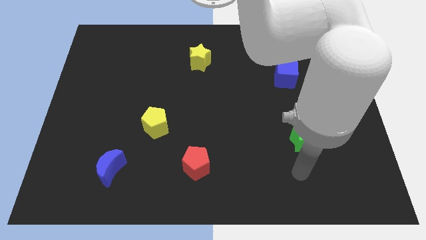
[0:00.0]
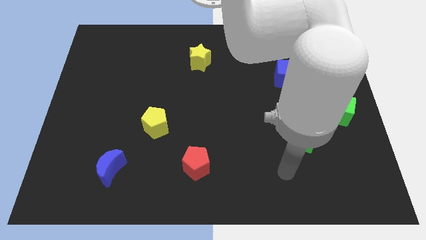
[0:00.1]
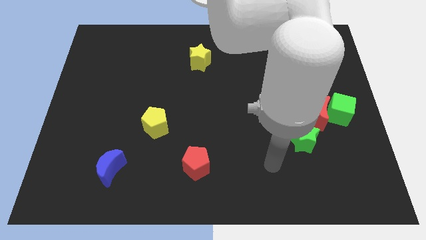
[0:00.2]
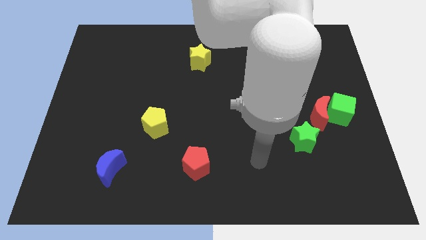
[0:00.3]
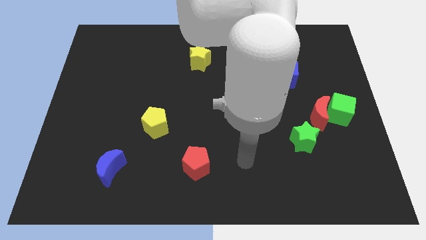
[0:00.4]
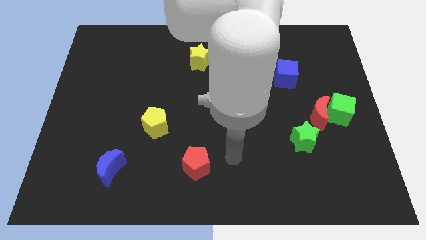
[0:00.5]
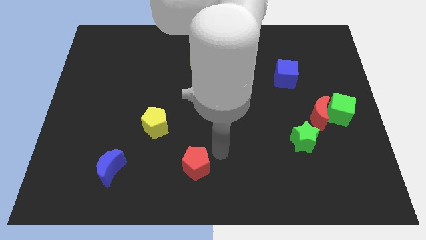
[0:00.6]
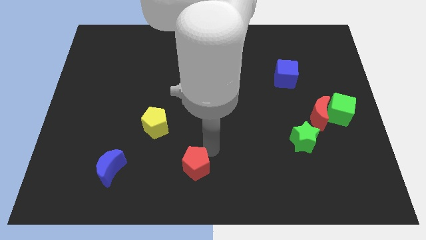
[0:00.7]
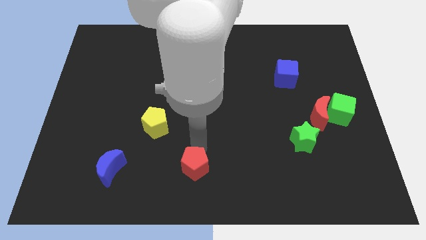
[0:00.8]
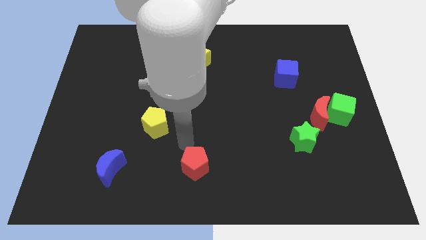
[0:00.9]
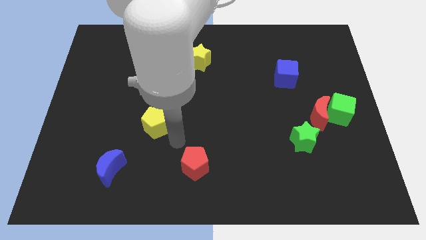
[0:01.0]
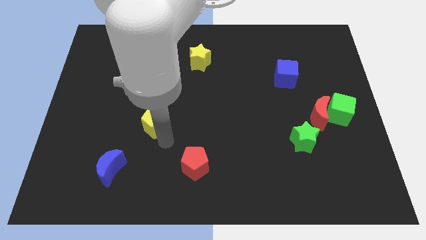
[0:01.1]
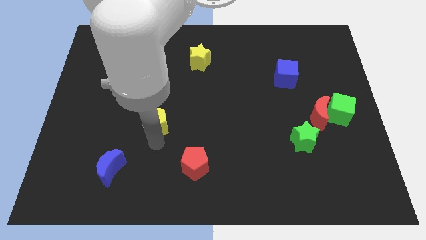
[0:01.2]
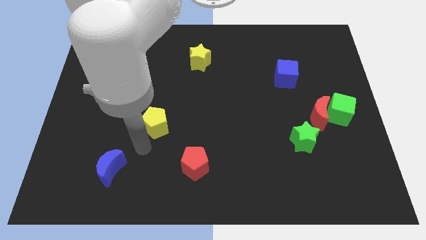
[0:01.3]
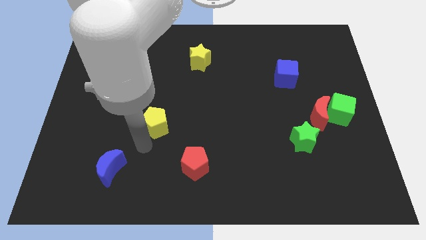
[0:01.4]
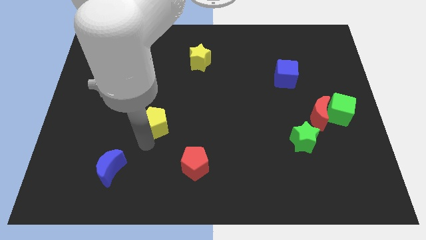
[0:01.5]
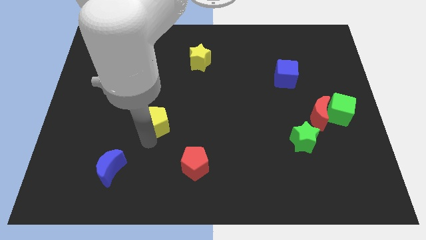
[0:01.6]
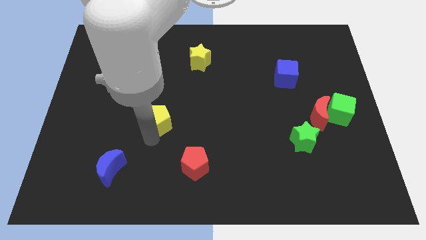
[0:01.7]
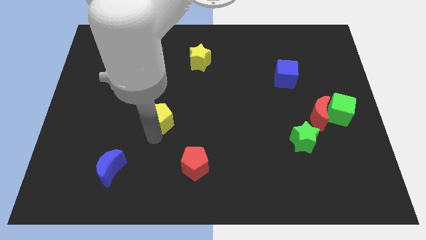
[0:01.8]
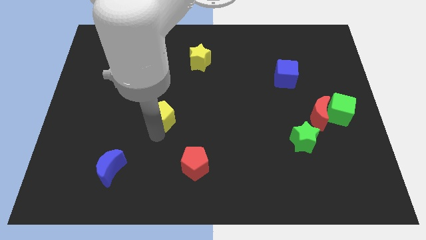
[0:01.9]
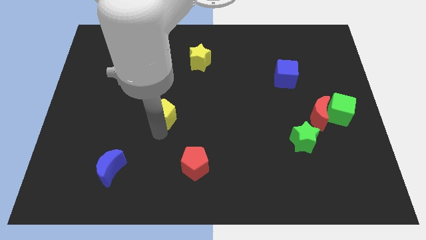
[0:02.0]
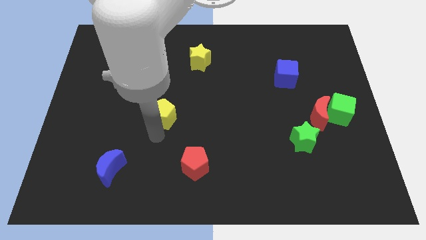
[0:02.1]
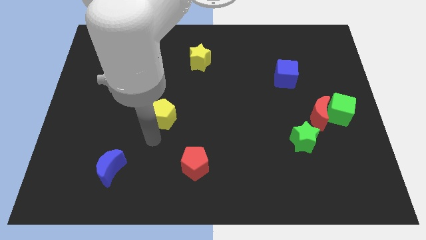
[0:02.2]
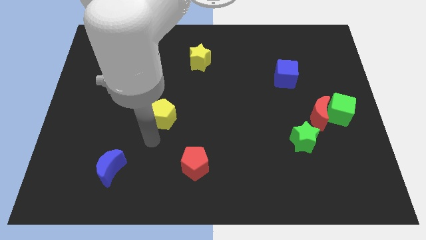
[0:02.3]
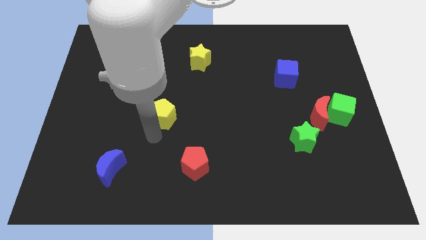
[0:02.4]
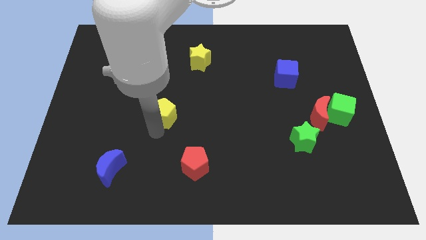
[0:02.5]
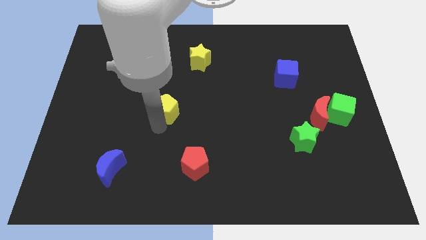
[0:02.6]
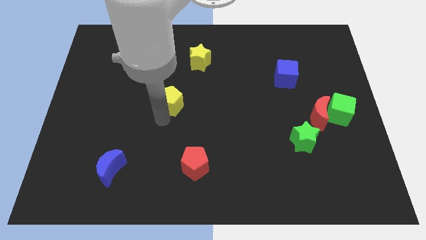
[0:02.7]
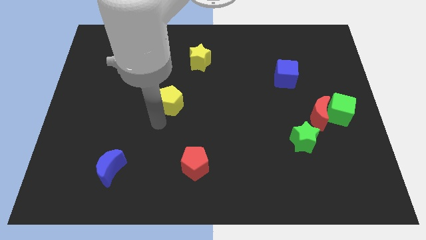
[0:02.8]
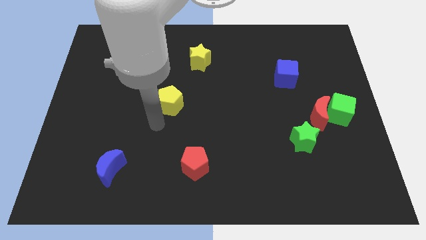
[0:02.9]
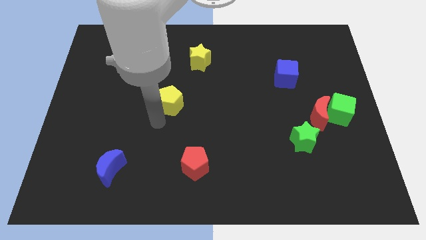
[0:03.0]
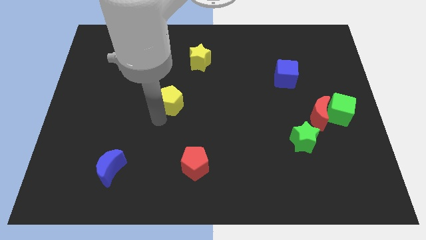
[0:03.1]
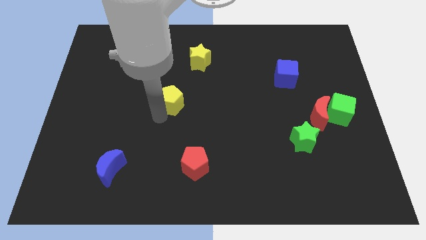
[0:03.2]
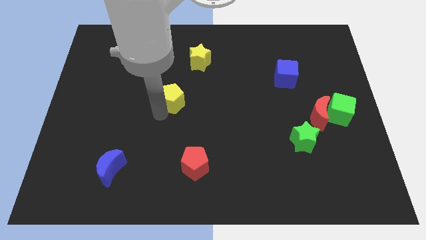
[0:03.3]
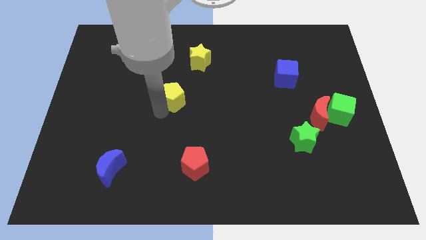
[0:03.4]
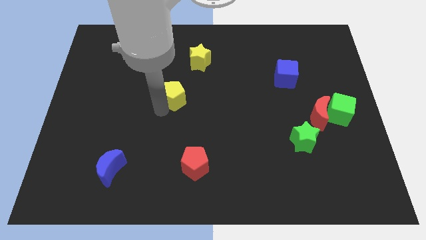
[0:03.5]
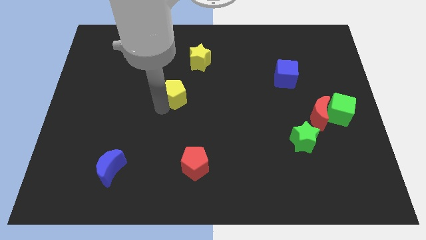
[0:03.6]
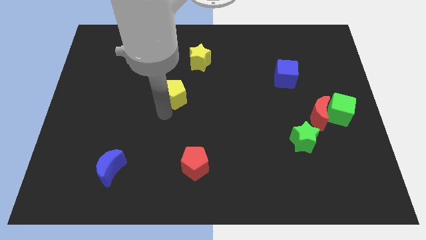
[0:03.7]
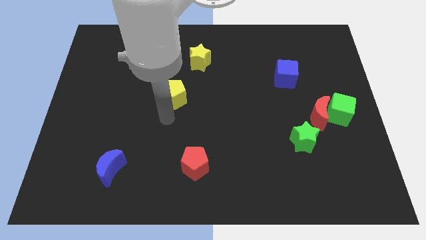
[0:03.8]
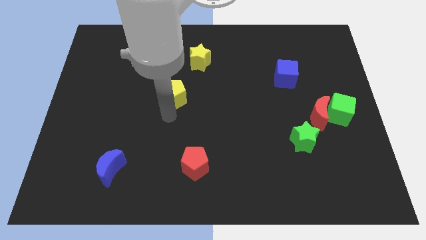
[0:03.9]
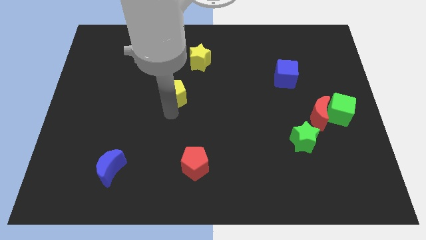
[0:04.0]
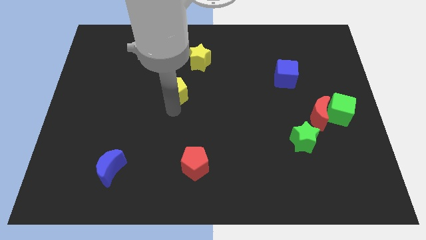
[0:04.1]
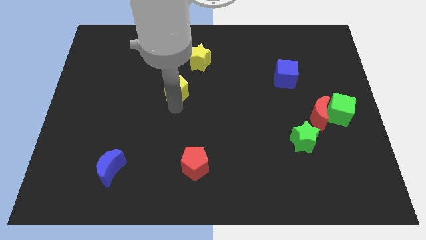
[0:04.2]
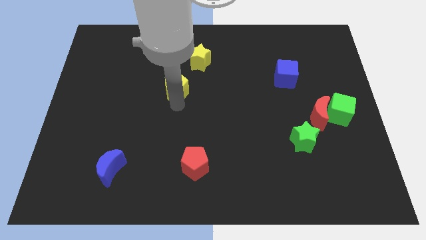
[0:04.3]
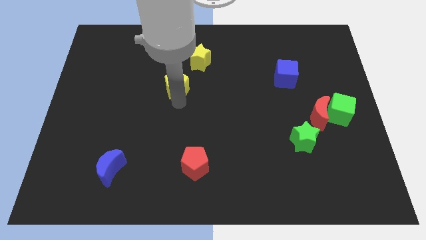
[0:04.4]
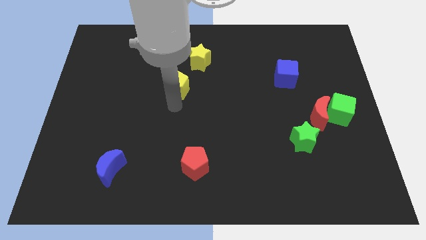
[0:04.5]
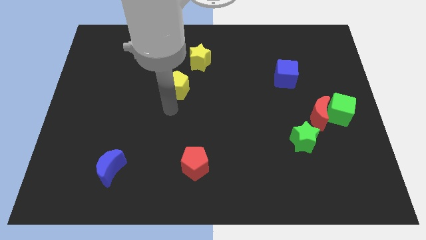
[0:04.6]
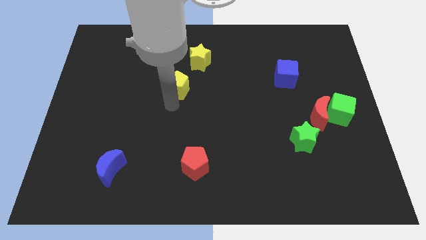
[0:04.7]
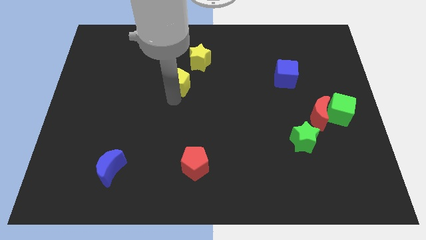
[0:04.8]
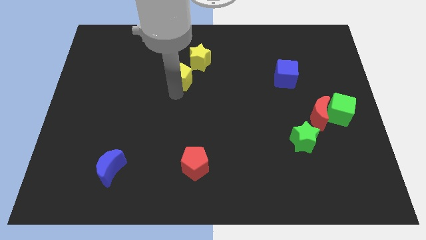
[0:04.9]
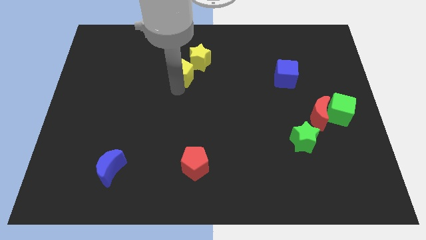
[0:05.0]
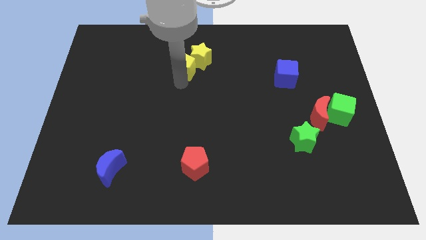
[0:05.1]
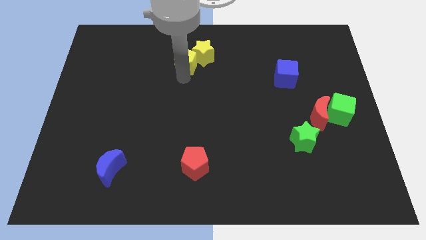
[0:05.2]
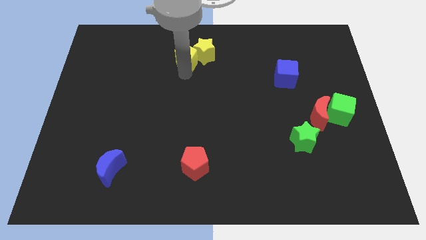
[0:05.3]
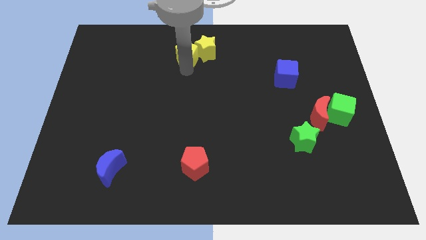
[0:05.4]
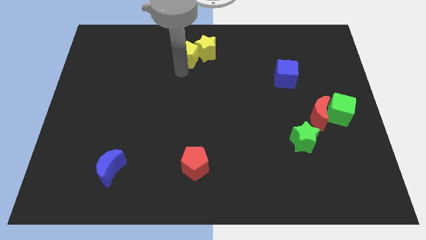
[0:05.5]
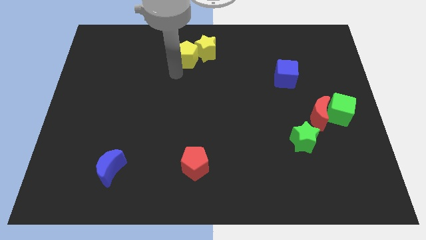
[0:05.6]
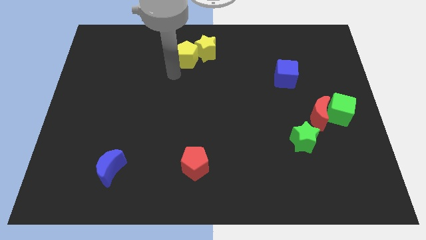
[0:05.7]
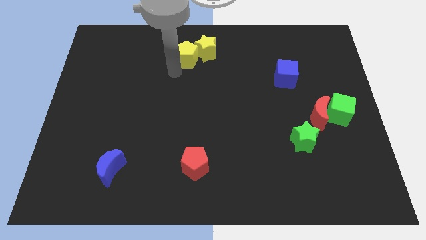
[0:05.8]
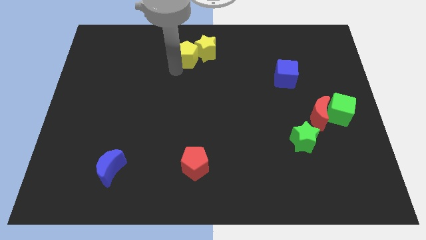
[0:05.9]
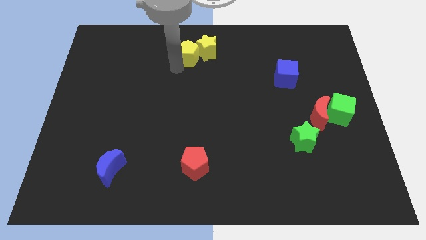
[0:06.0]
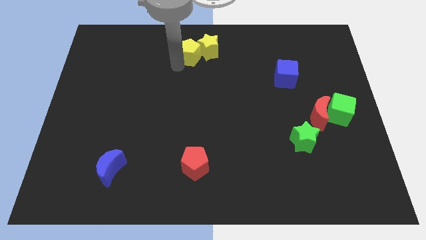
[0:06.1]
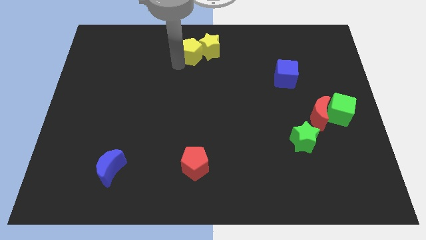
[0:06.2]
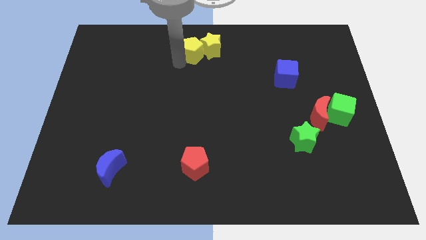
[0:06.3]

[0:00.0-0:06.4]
push the yellow pentagon to the top side
